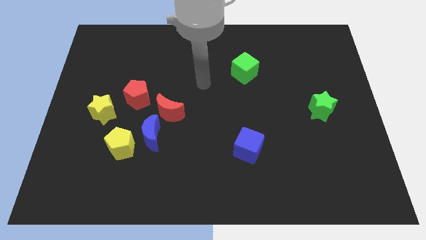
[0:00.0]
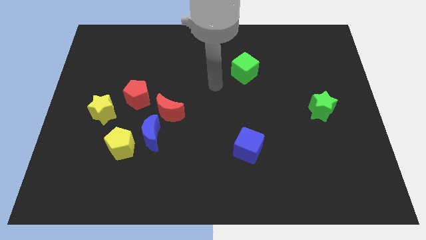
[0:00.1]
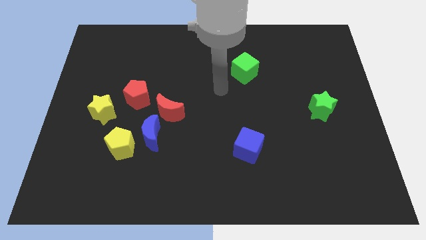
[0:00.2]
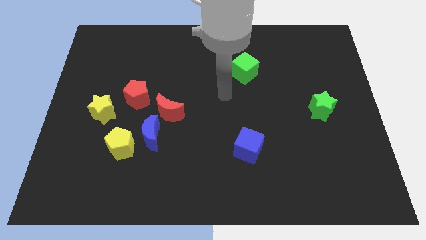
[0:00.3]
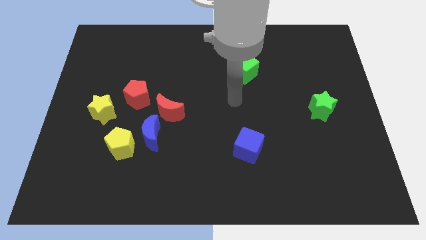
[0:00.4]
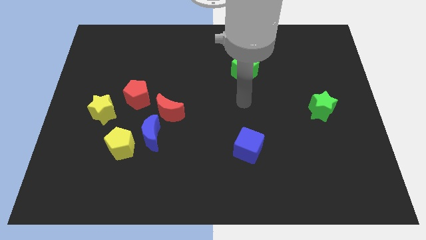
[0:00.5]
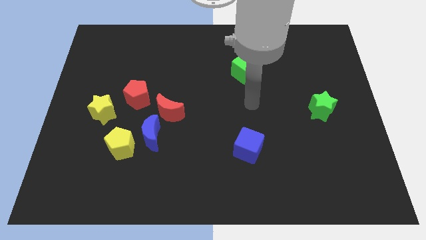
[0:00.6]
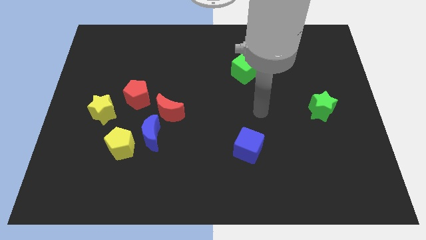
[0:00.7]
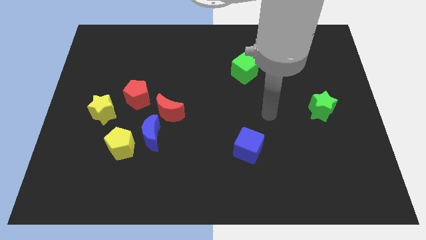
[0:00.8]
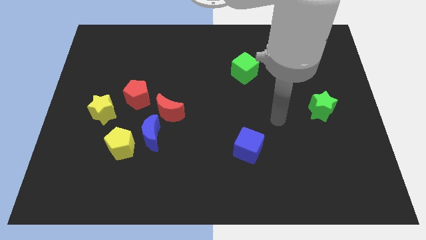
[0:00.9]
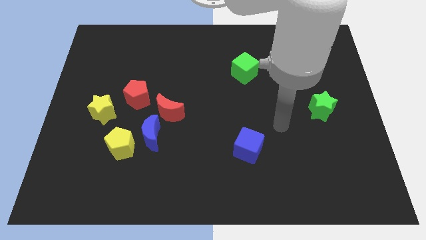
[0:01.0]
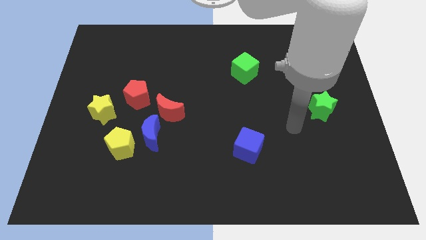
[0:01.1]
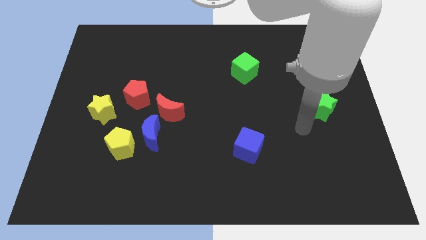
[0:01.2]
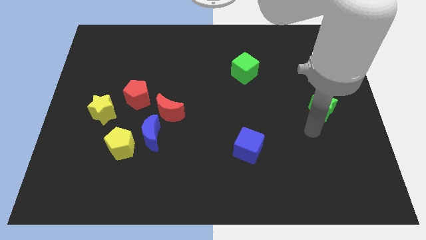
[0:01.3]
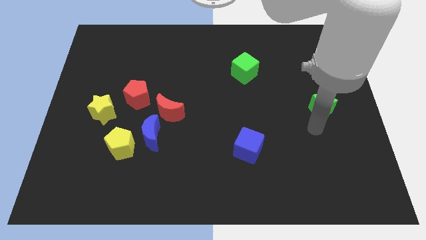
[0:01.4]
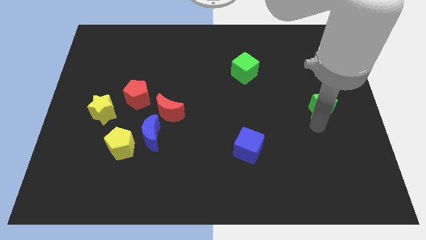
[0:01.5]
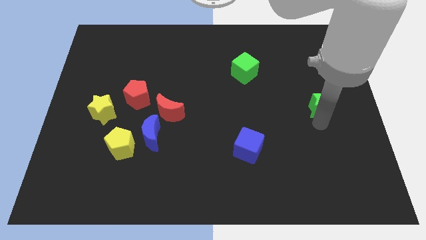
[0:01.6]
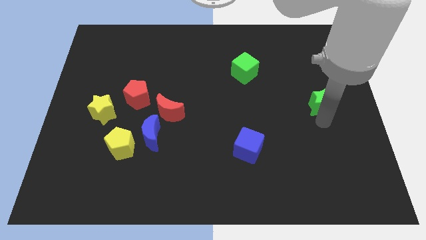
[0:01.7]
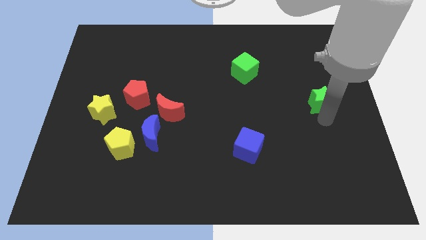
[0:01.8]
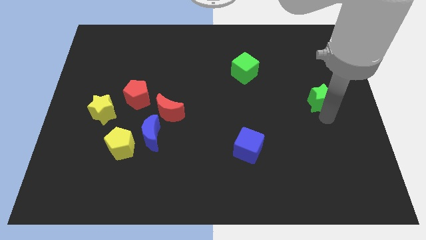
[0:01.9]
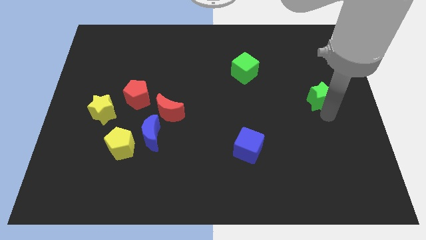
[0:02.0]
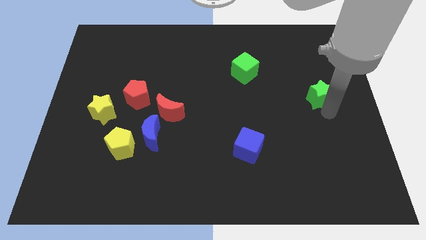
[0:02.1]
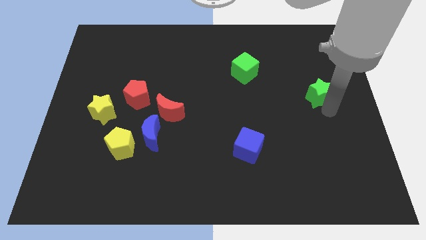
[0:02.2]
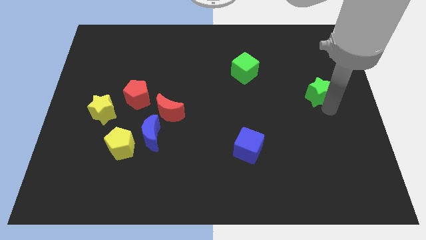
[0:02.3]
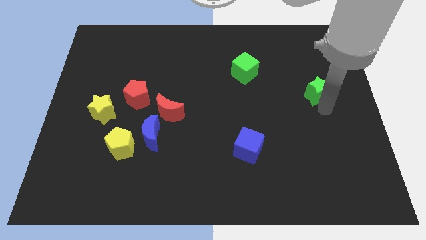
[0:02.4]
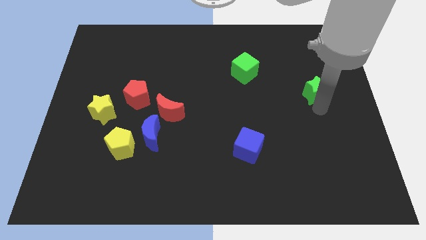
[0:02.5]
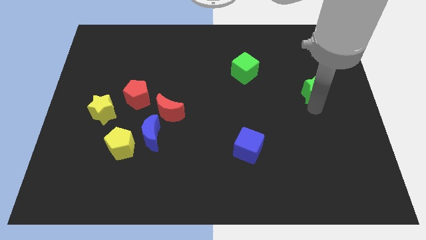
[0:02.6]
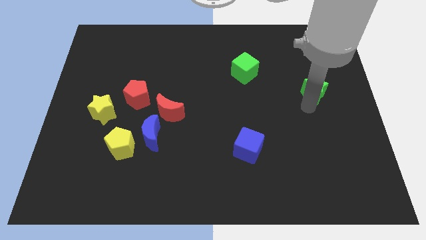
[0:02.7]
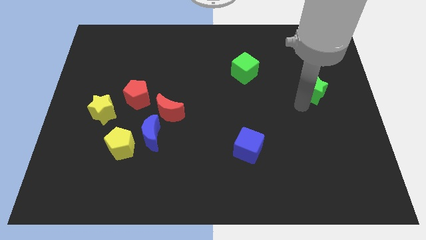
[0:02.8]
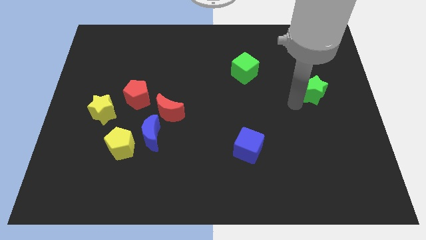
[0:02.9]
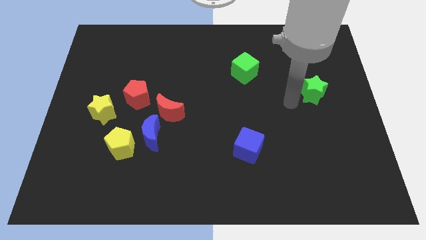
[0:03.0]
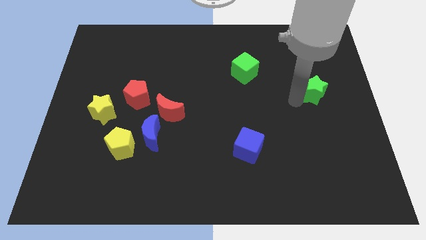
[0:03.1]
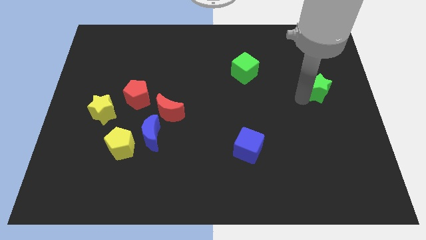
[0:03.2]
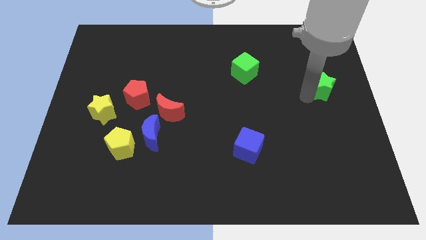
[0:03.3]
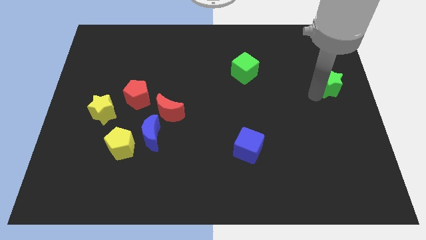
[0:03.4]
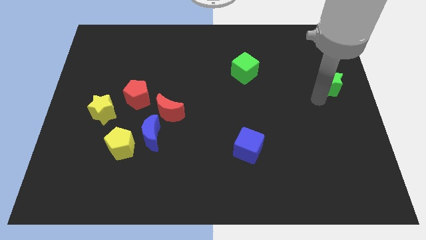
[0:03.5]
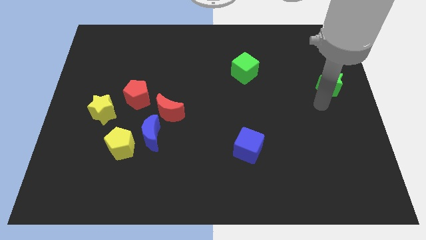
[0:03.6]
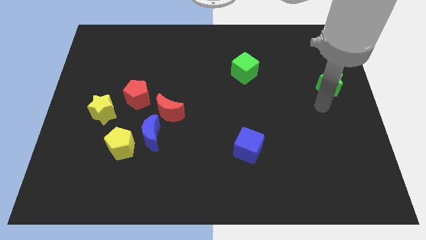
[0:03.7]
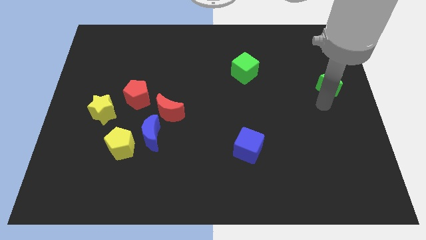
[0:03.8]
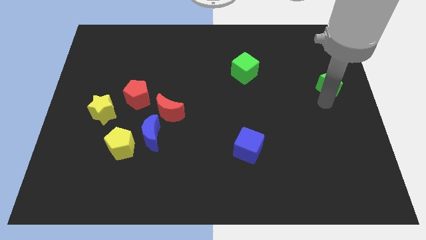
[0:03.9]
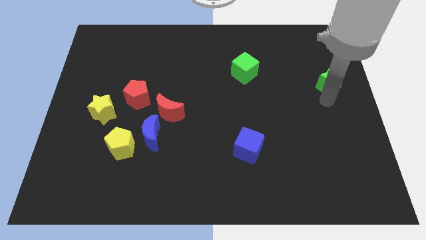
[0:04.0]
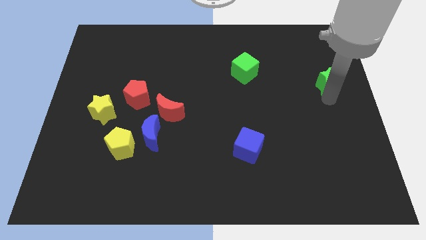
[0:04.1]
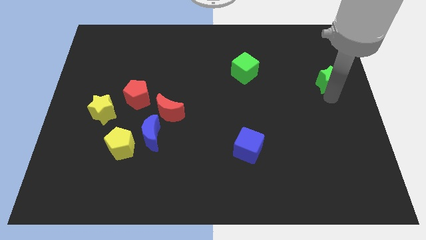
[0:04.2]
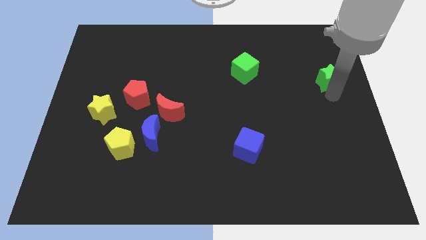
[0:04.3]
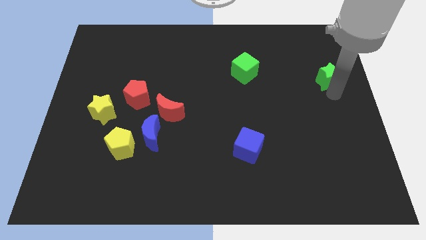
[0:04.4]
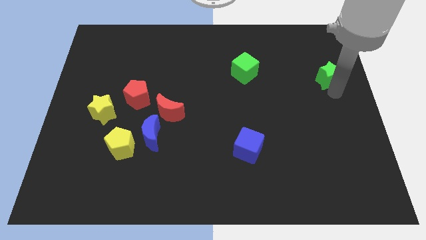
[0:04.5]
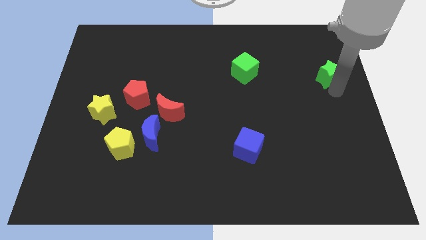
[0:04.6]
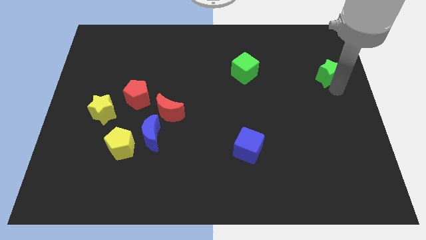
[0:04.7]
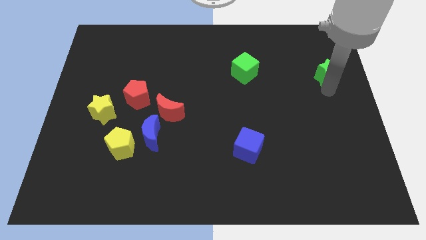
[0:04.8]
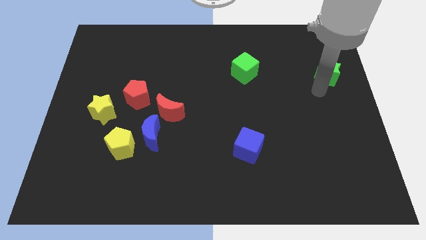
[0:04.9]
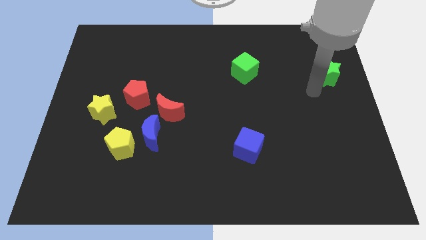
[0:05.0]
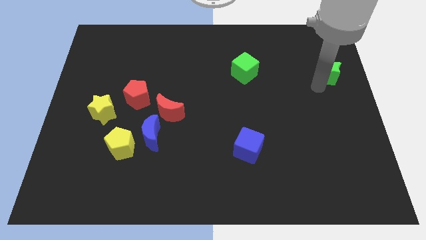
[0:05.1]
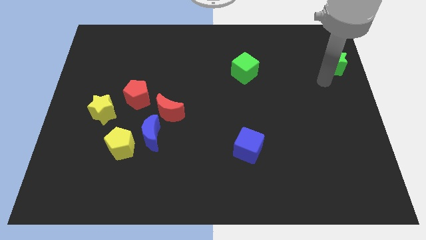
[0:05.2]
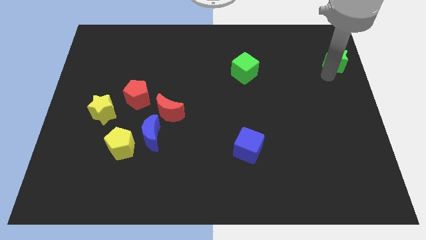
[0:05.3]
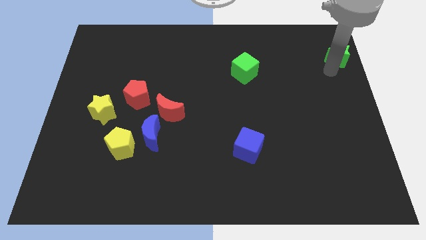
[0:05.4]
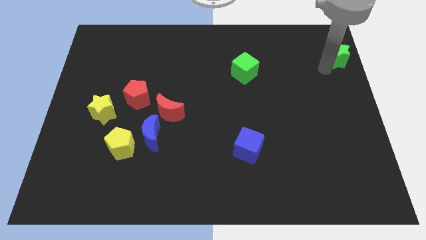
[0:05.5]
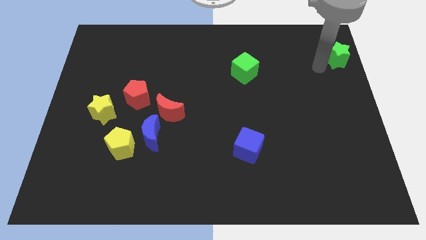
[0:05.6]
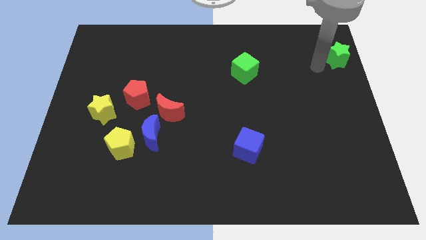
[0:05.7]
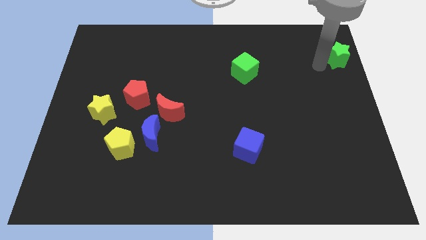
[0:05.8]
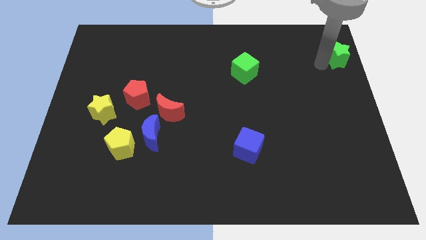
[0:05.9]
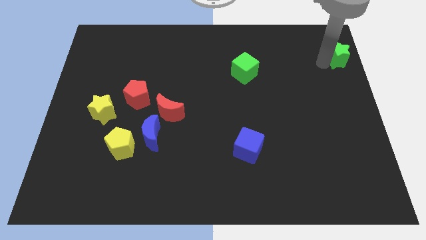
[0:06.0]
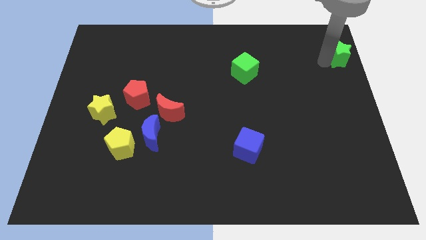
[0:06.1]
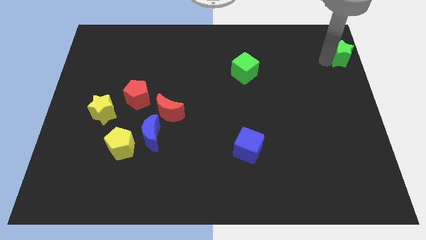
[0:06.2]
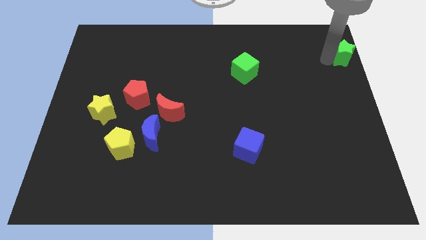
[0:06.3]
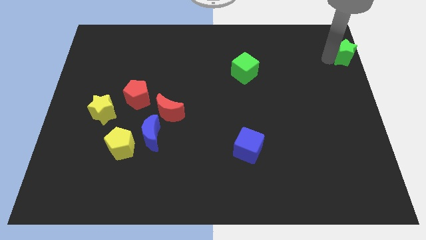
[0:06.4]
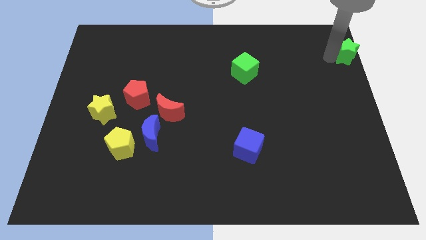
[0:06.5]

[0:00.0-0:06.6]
move the green star to the top right of the board
